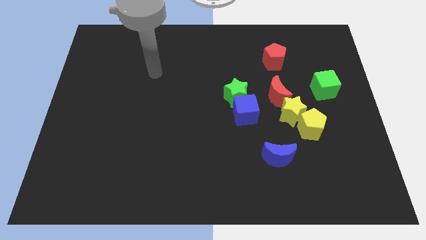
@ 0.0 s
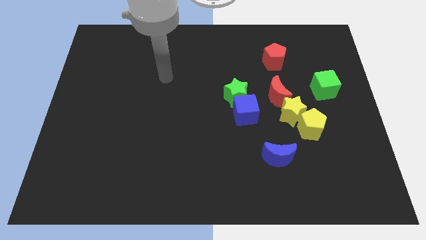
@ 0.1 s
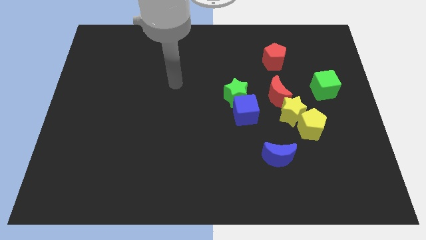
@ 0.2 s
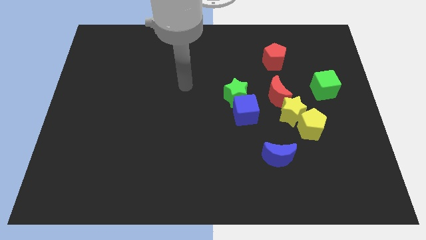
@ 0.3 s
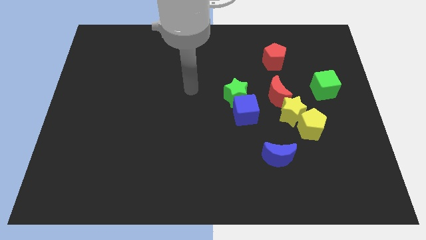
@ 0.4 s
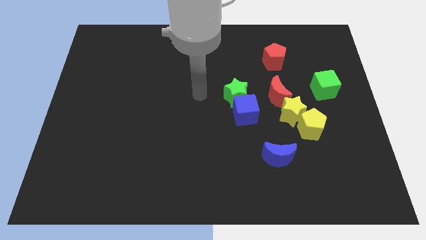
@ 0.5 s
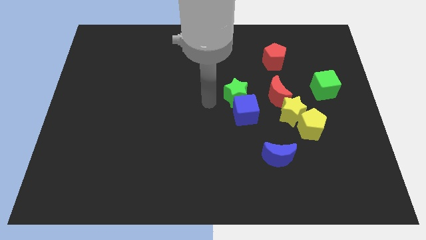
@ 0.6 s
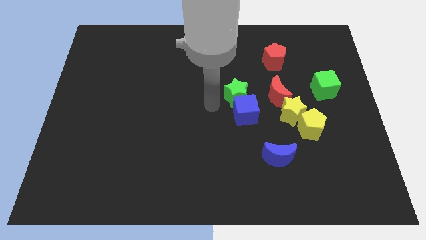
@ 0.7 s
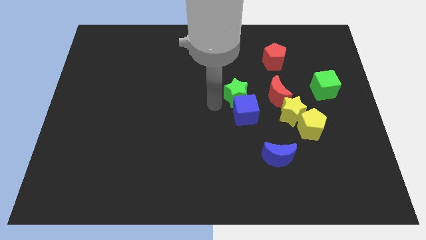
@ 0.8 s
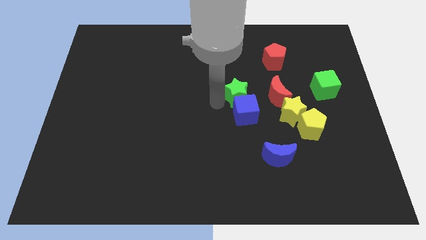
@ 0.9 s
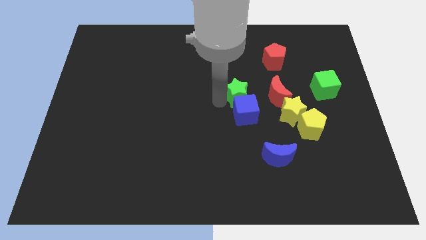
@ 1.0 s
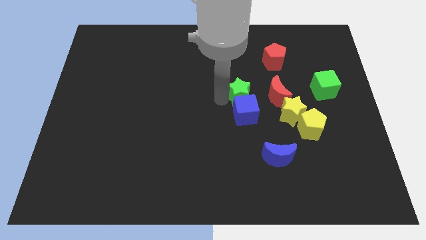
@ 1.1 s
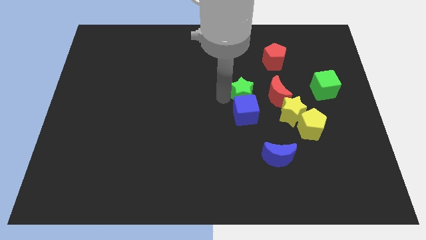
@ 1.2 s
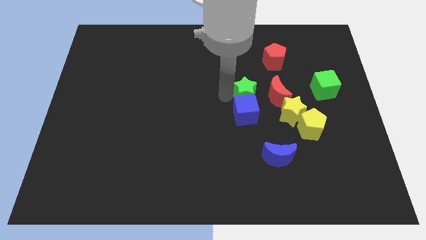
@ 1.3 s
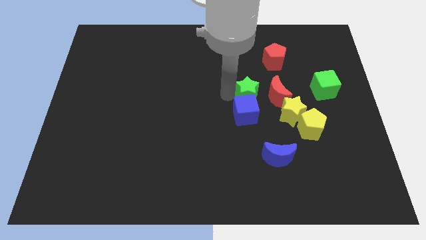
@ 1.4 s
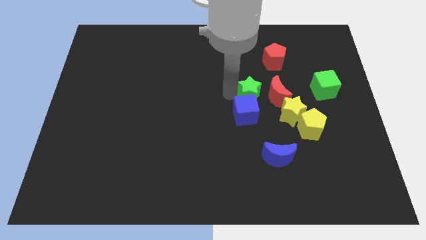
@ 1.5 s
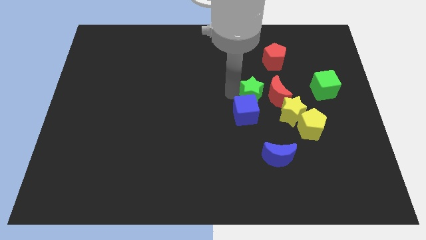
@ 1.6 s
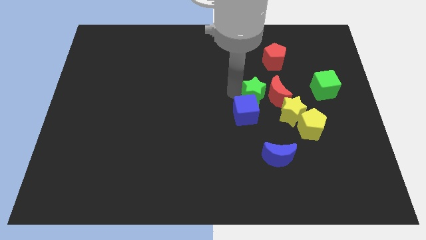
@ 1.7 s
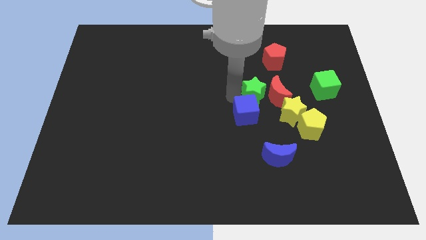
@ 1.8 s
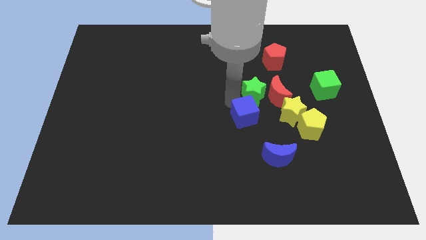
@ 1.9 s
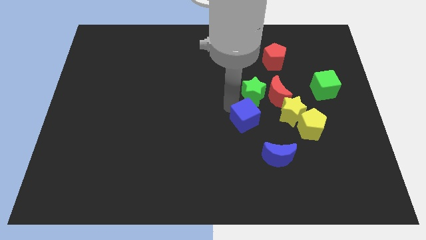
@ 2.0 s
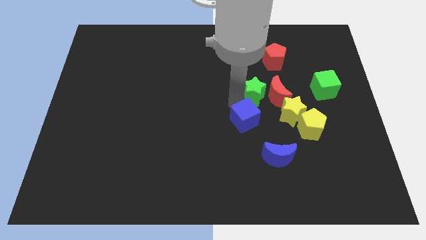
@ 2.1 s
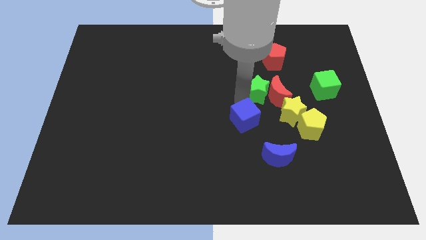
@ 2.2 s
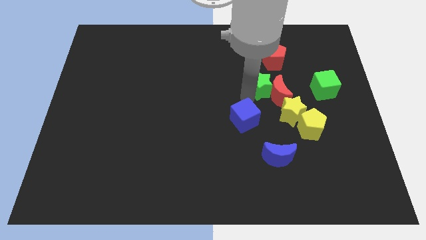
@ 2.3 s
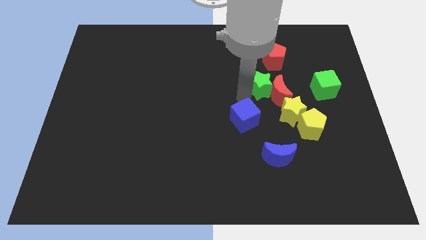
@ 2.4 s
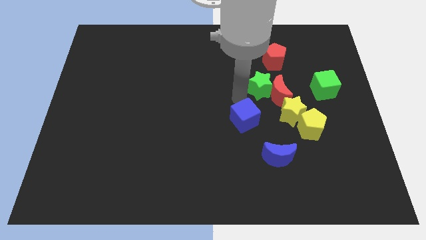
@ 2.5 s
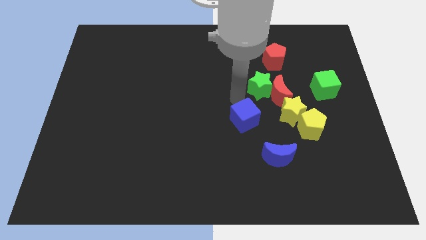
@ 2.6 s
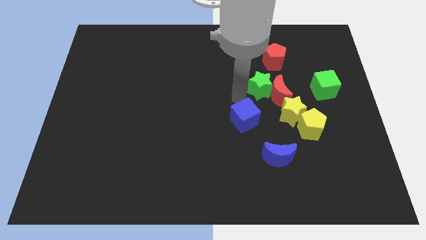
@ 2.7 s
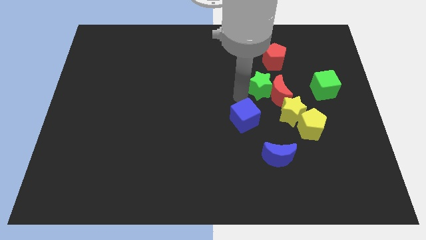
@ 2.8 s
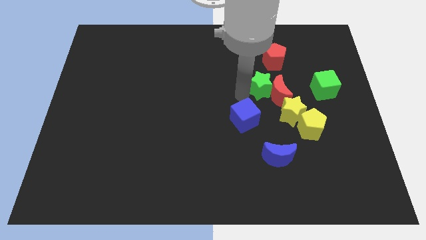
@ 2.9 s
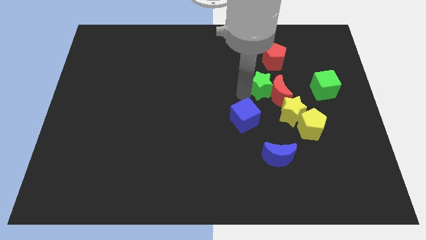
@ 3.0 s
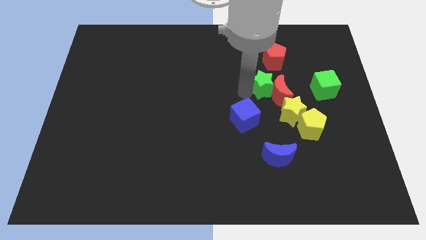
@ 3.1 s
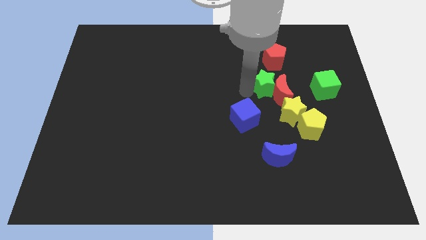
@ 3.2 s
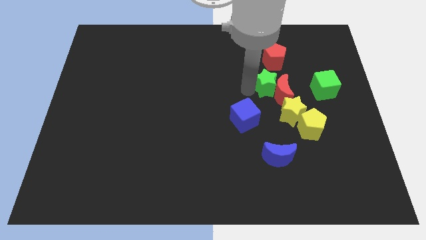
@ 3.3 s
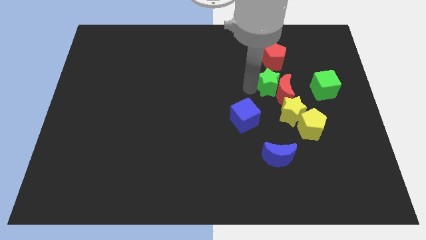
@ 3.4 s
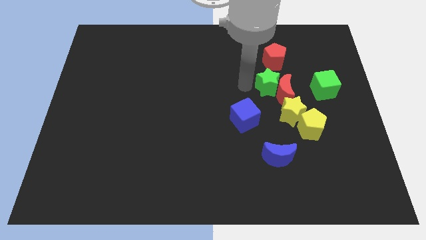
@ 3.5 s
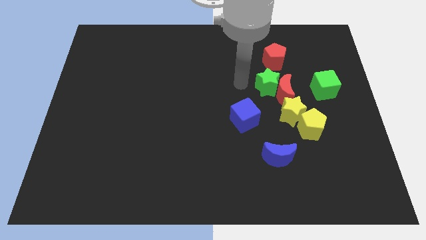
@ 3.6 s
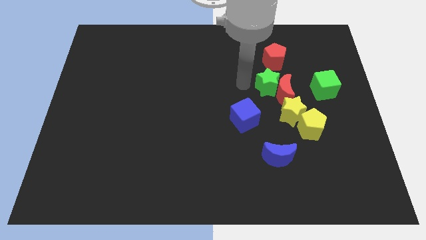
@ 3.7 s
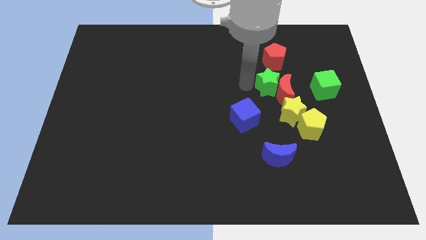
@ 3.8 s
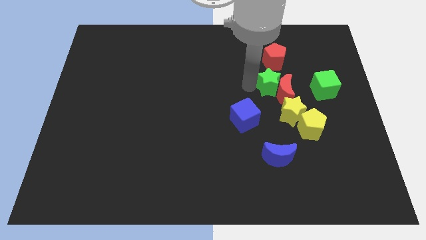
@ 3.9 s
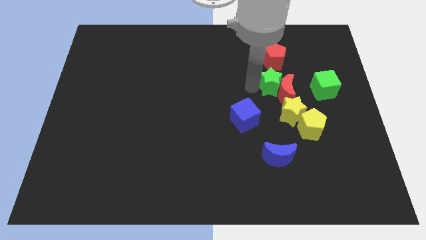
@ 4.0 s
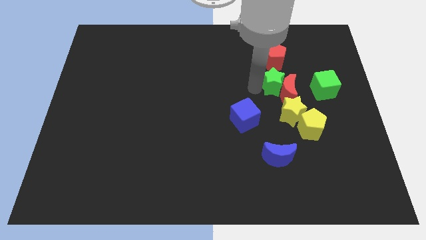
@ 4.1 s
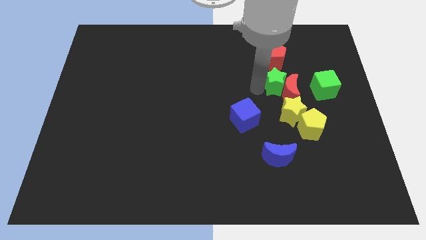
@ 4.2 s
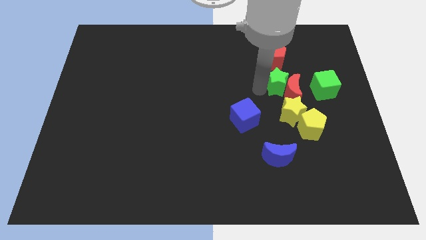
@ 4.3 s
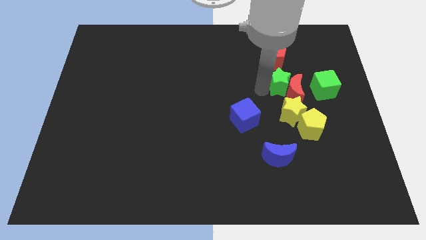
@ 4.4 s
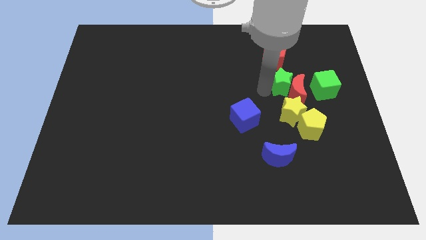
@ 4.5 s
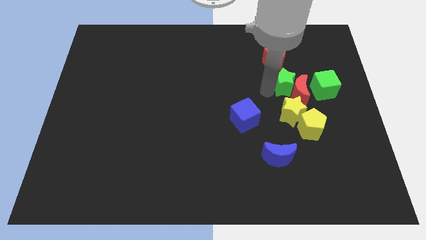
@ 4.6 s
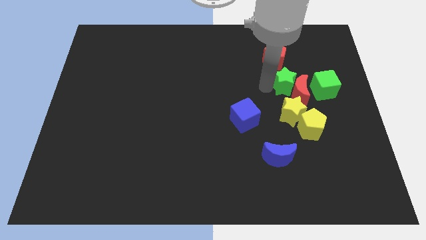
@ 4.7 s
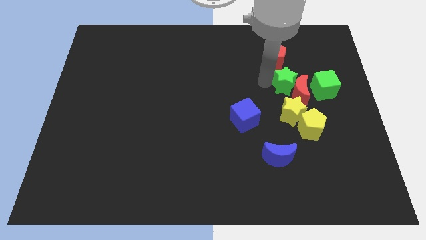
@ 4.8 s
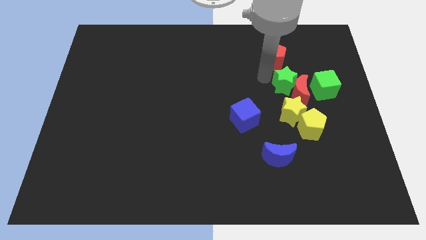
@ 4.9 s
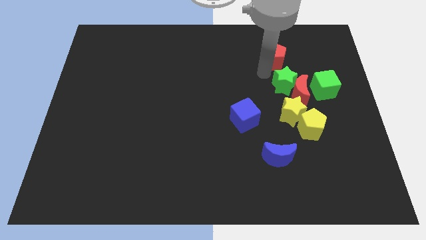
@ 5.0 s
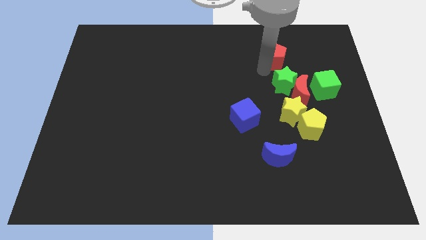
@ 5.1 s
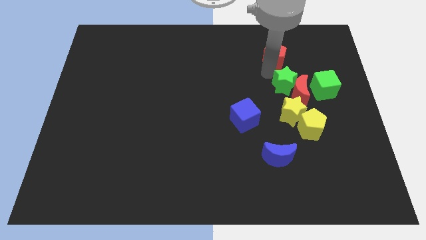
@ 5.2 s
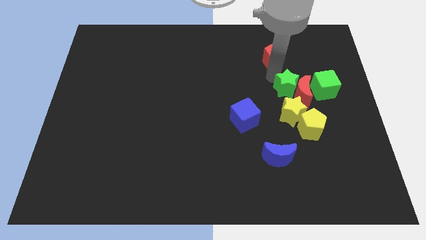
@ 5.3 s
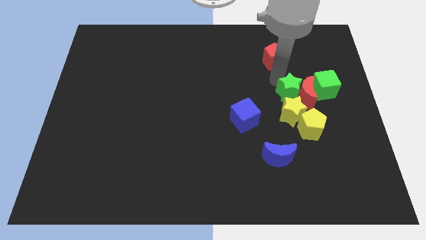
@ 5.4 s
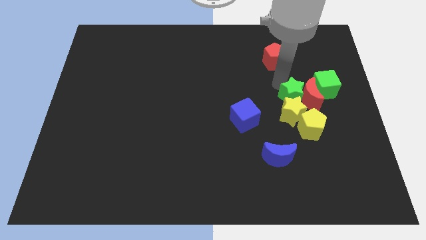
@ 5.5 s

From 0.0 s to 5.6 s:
put the green star towards the yellow star
